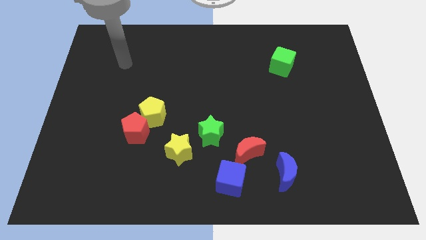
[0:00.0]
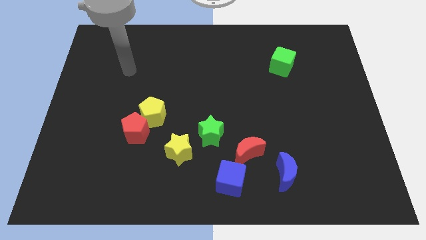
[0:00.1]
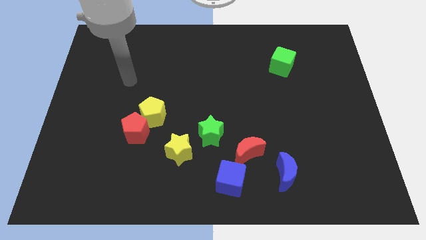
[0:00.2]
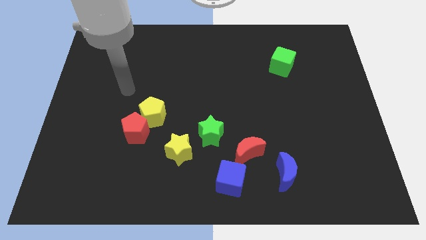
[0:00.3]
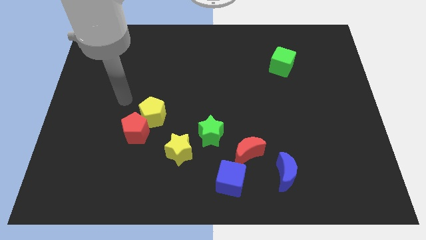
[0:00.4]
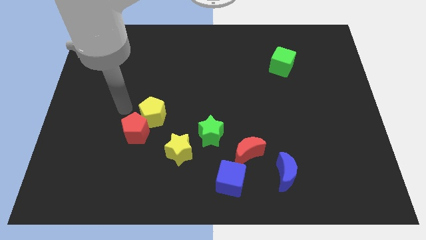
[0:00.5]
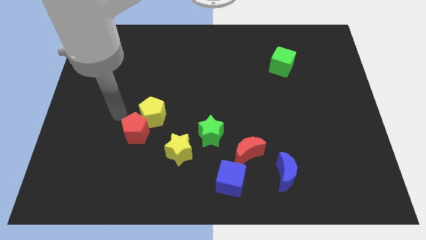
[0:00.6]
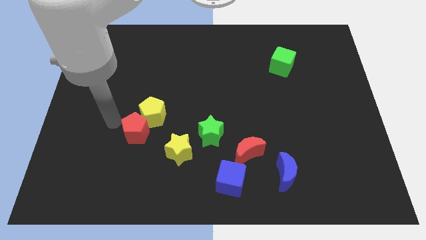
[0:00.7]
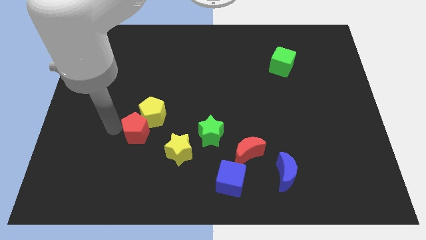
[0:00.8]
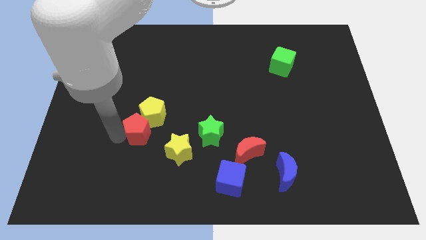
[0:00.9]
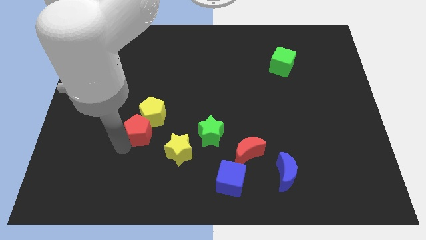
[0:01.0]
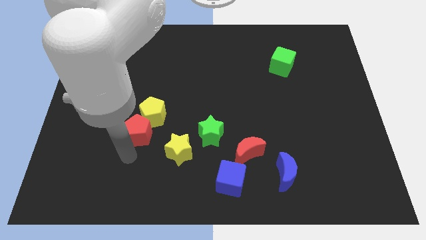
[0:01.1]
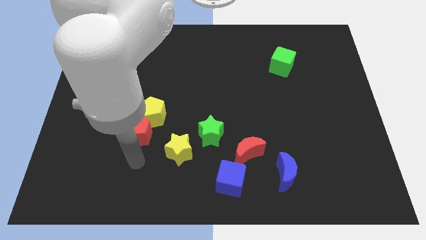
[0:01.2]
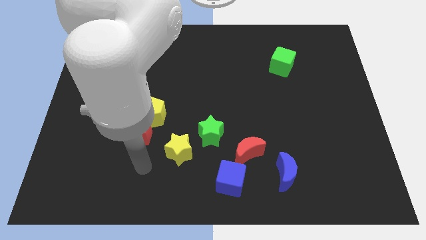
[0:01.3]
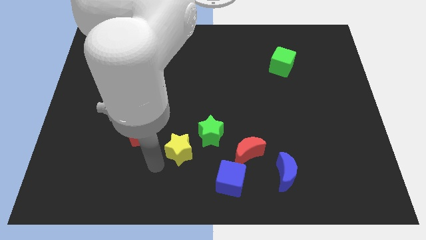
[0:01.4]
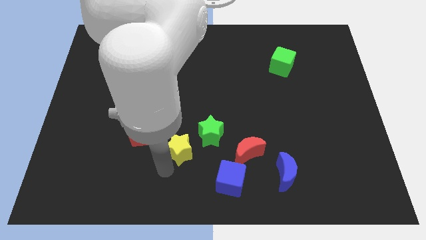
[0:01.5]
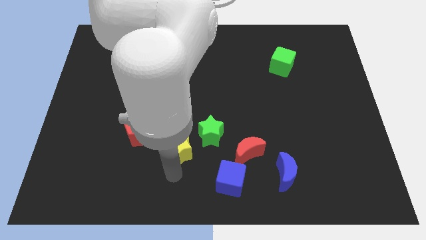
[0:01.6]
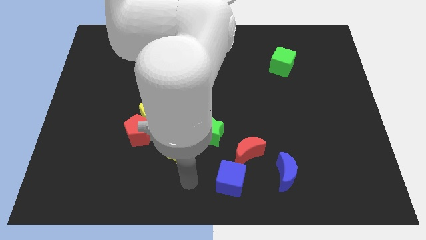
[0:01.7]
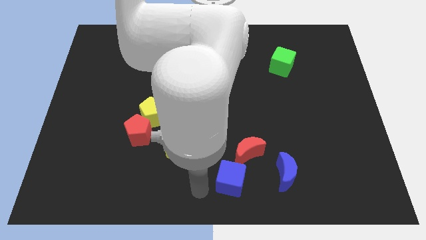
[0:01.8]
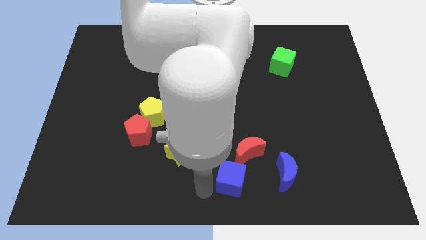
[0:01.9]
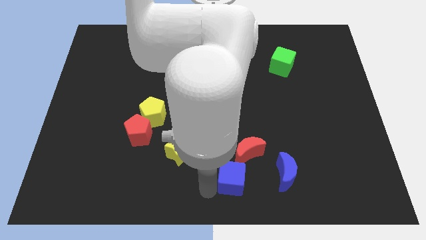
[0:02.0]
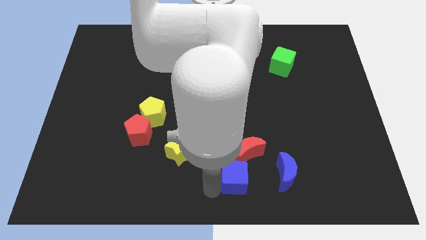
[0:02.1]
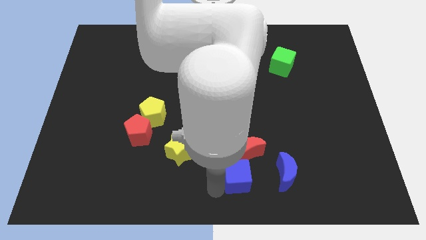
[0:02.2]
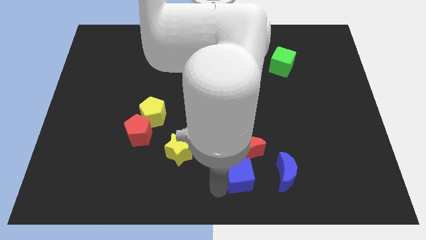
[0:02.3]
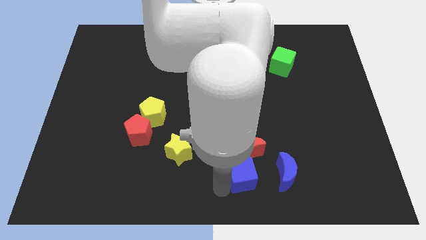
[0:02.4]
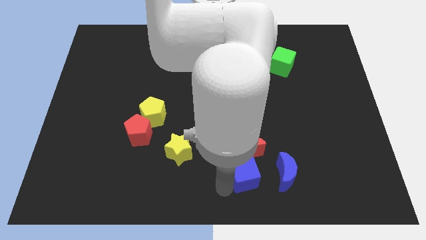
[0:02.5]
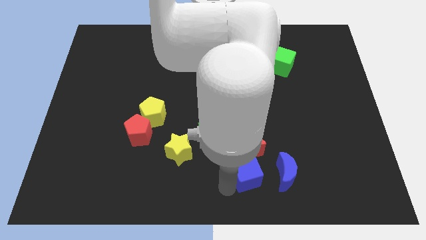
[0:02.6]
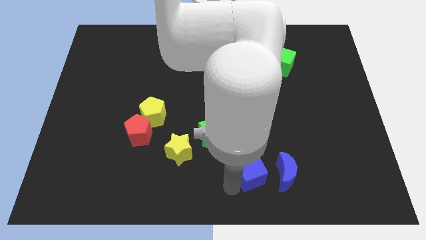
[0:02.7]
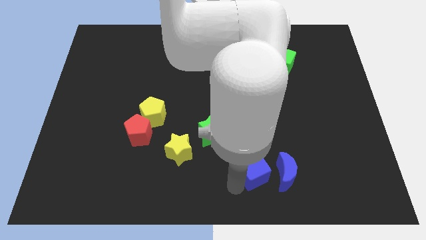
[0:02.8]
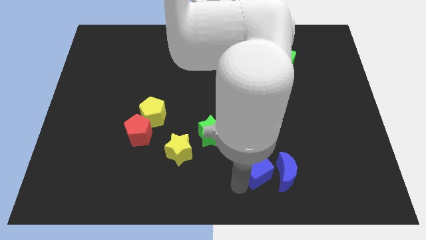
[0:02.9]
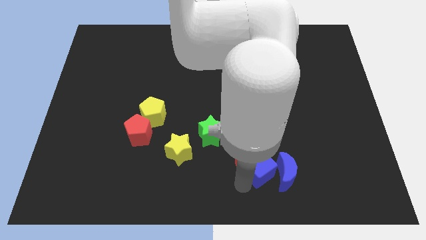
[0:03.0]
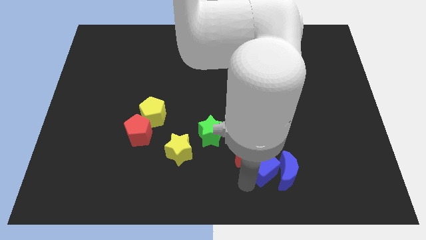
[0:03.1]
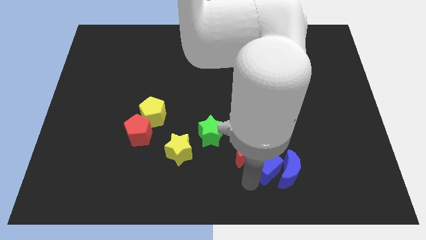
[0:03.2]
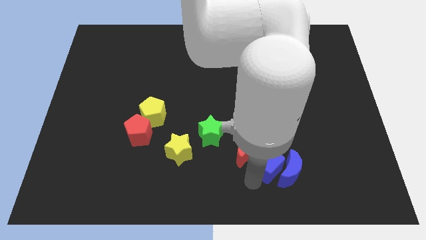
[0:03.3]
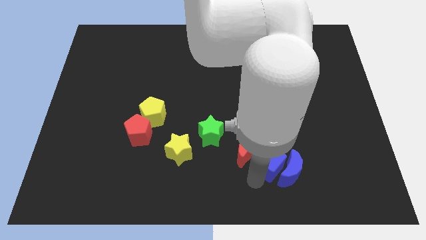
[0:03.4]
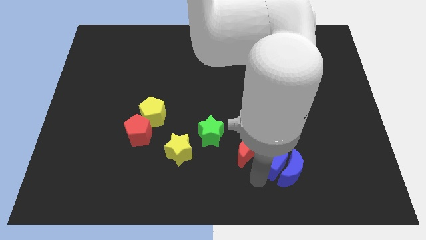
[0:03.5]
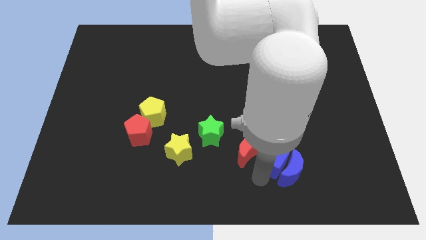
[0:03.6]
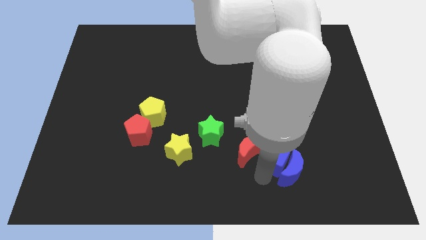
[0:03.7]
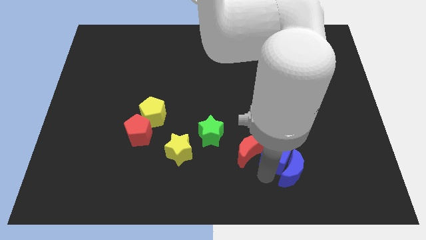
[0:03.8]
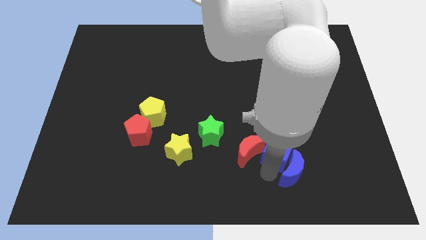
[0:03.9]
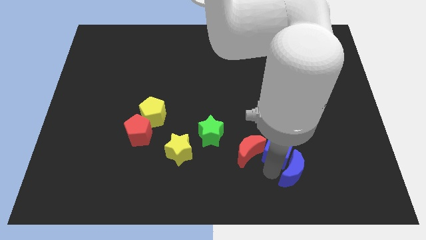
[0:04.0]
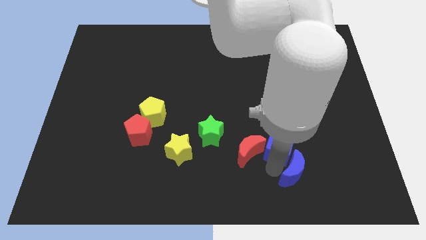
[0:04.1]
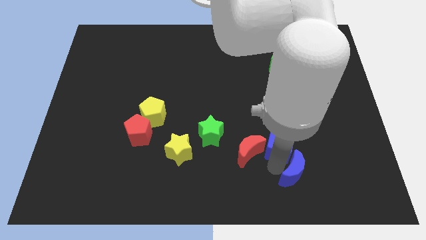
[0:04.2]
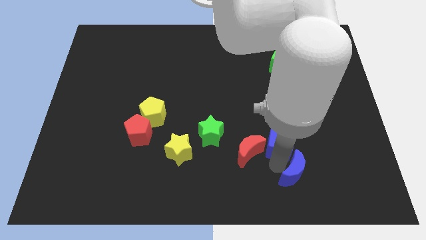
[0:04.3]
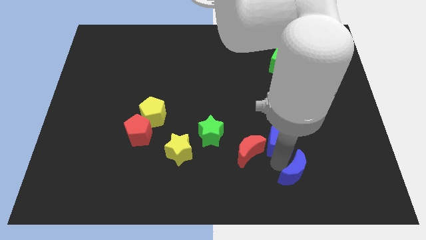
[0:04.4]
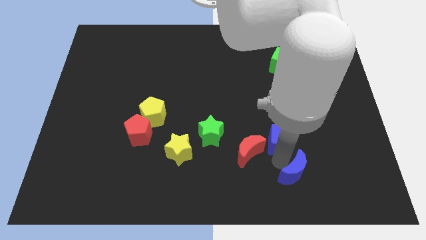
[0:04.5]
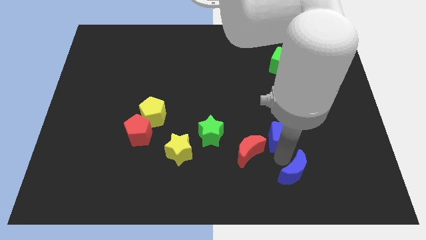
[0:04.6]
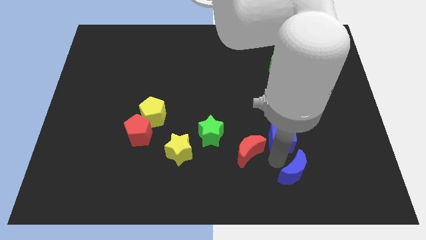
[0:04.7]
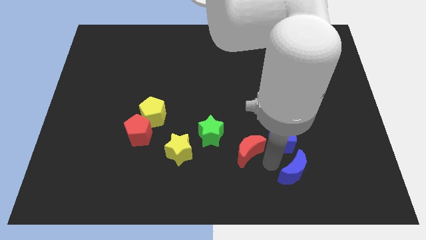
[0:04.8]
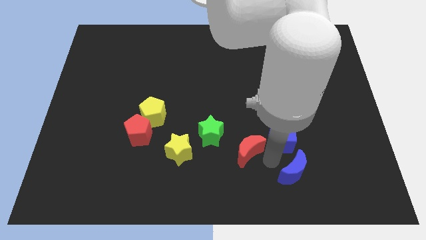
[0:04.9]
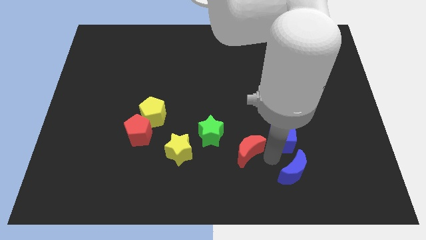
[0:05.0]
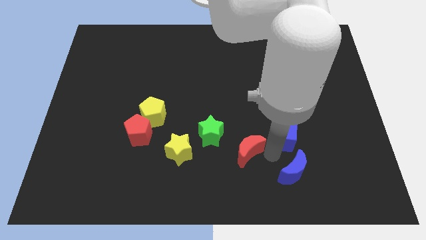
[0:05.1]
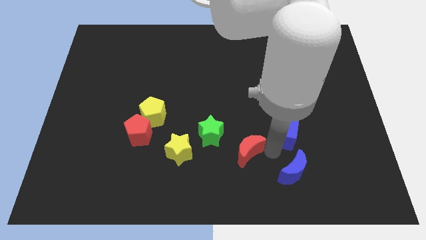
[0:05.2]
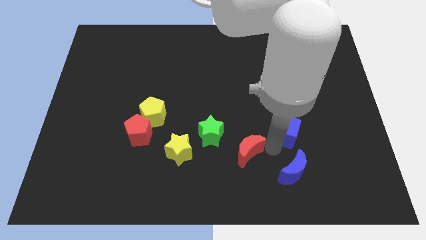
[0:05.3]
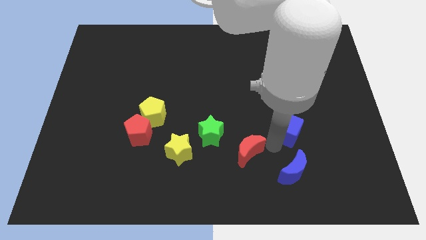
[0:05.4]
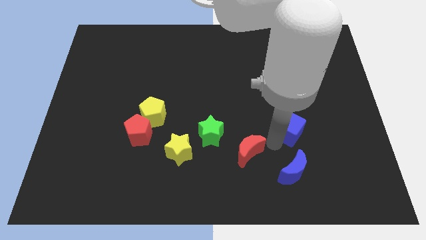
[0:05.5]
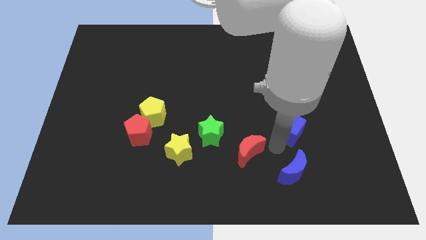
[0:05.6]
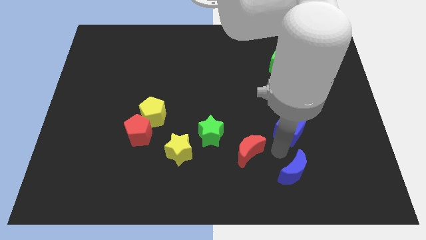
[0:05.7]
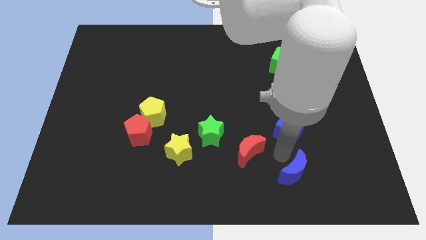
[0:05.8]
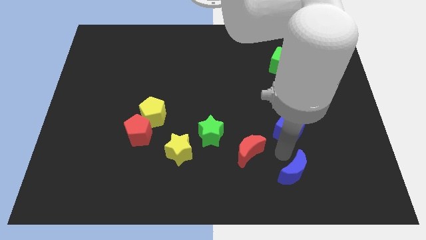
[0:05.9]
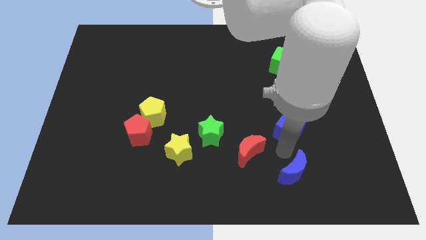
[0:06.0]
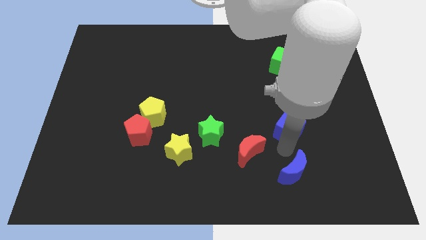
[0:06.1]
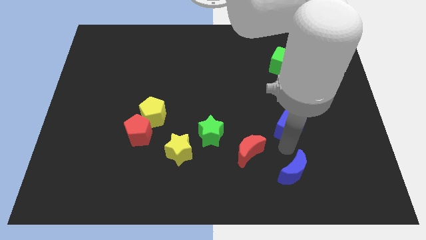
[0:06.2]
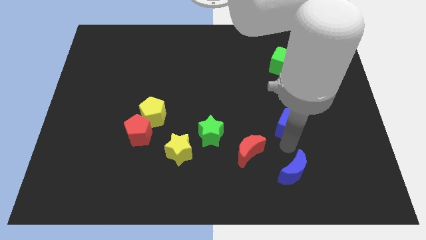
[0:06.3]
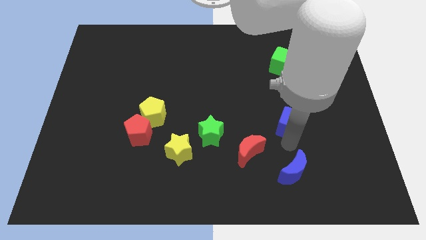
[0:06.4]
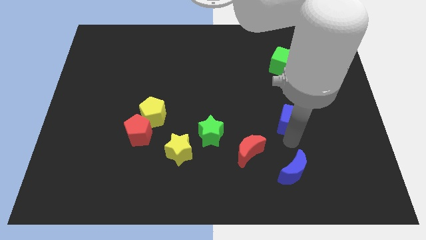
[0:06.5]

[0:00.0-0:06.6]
push the blue cube diagonally up and right

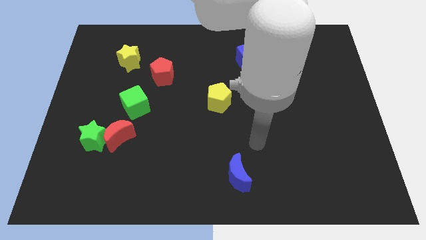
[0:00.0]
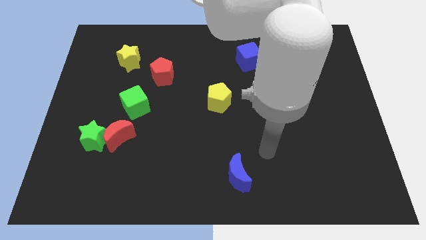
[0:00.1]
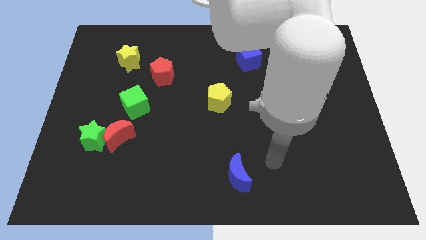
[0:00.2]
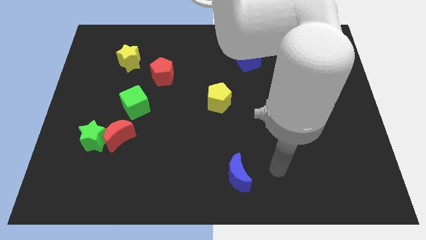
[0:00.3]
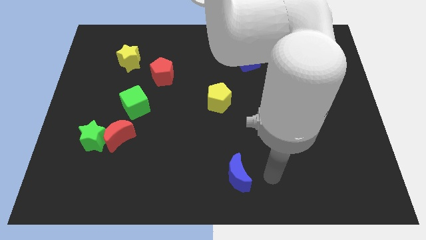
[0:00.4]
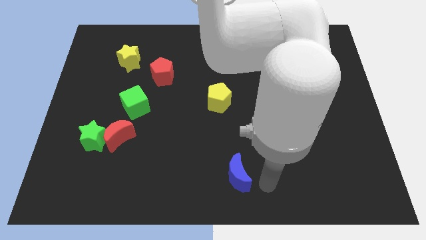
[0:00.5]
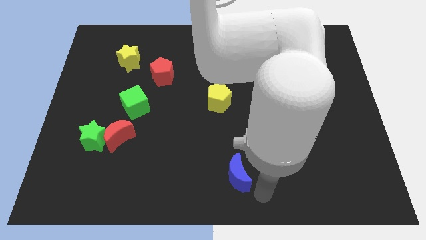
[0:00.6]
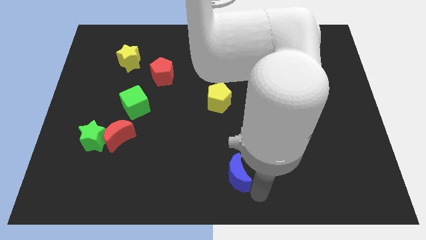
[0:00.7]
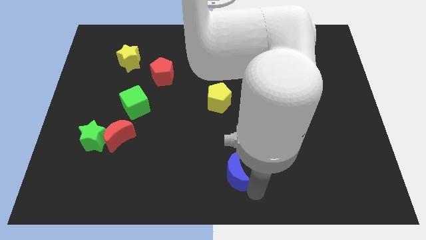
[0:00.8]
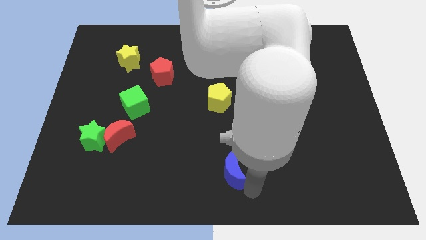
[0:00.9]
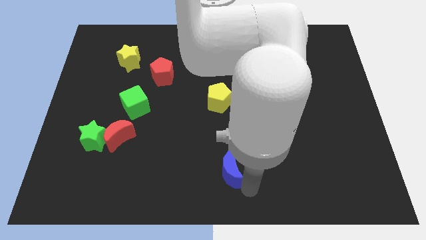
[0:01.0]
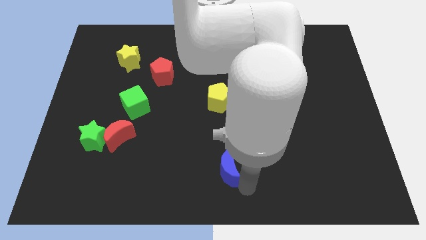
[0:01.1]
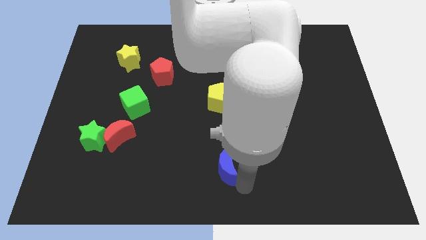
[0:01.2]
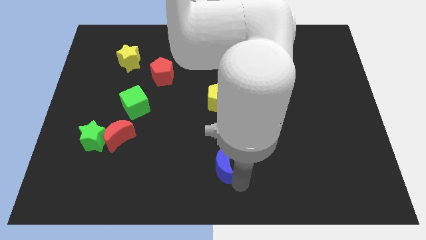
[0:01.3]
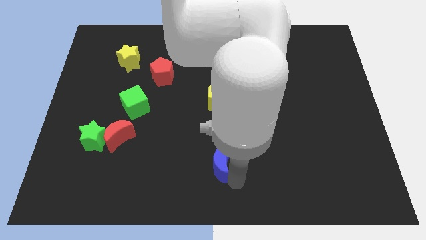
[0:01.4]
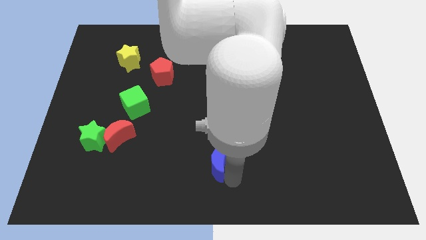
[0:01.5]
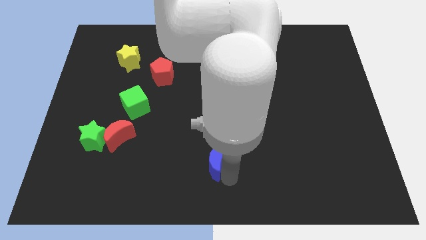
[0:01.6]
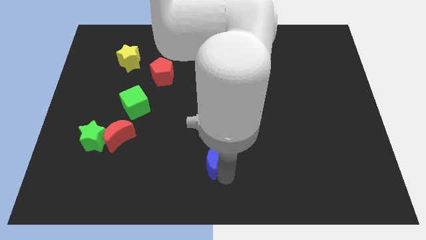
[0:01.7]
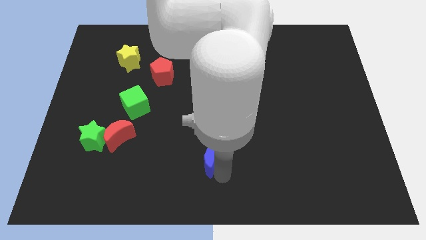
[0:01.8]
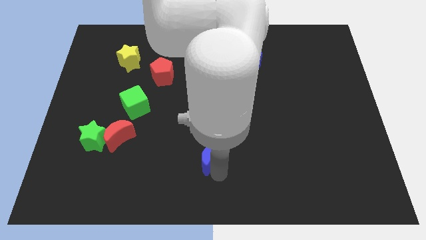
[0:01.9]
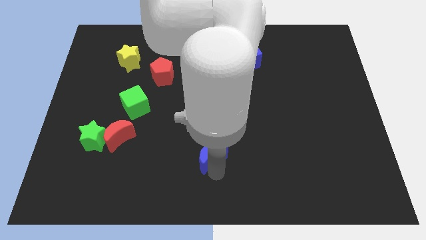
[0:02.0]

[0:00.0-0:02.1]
slightly slide the blue moon up and then left
